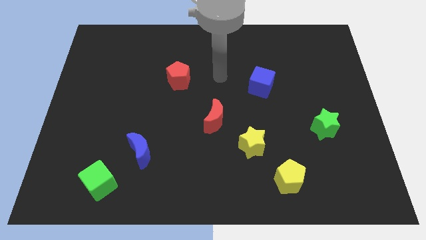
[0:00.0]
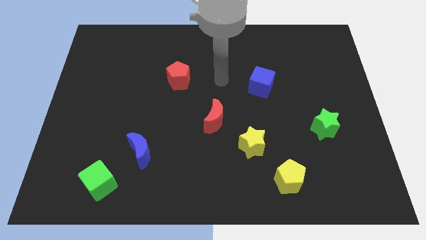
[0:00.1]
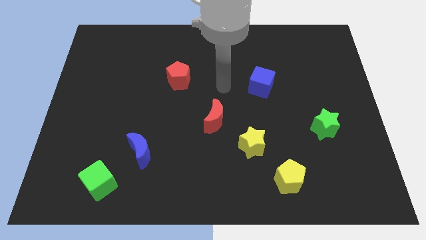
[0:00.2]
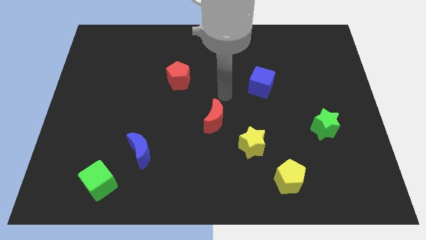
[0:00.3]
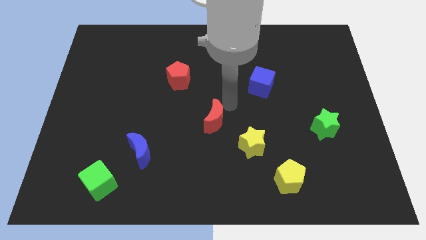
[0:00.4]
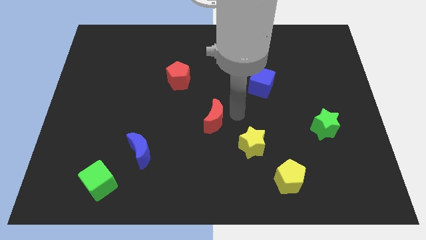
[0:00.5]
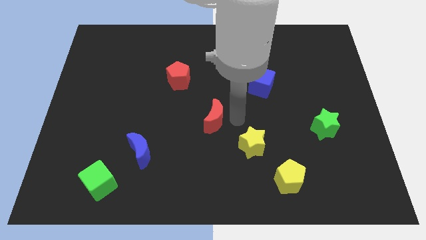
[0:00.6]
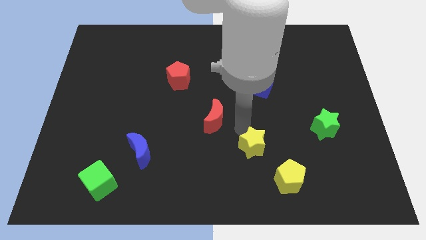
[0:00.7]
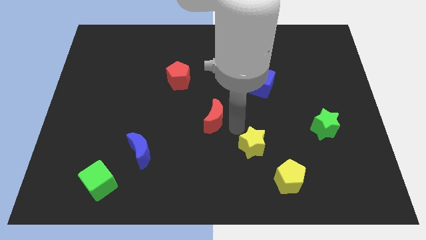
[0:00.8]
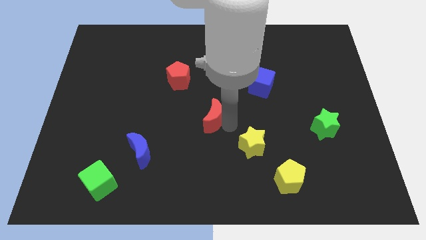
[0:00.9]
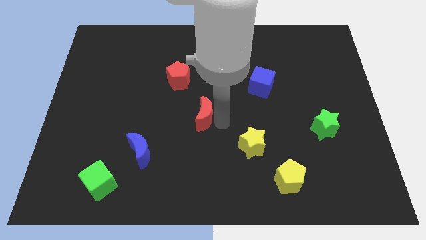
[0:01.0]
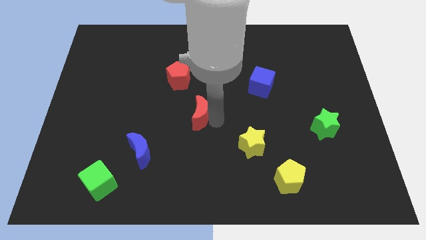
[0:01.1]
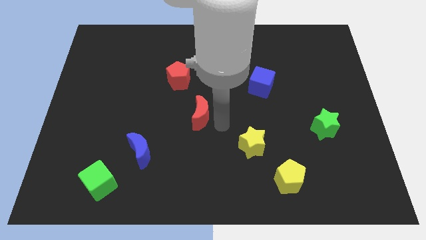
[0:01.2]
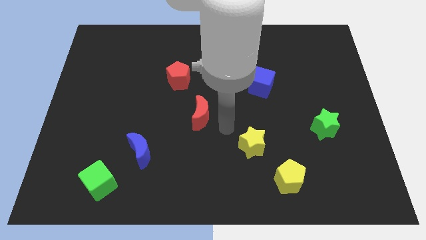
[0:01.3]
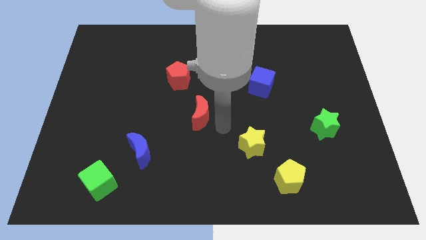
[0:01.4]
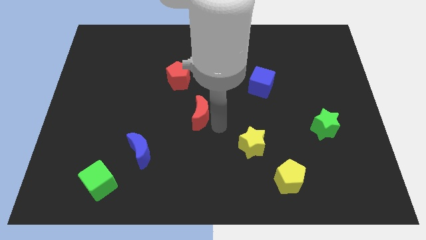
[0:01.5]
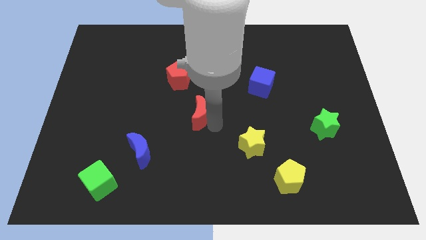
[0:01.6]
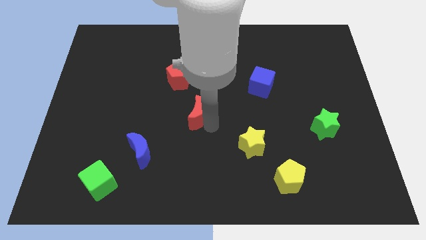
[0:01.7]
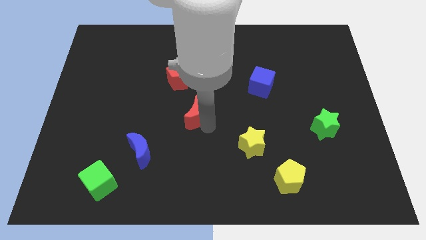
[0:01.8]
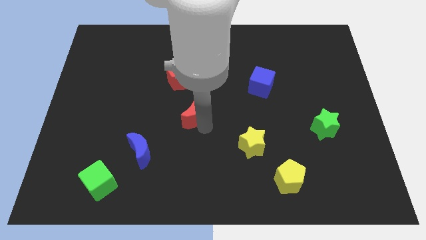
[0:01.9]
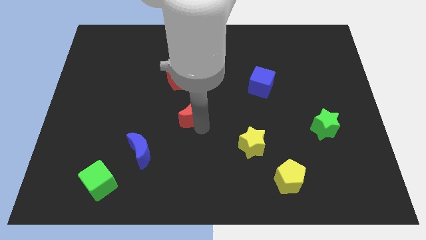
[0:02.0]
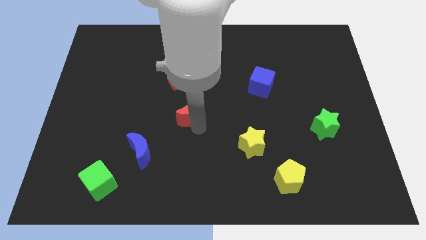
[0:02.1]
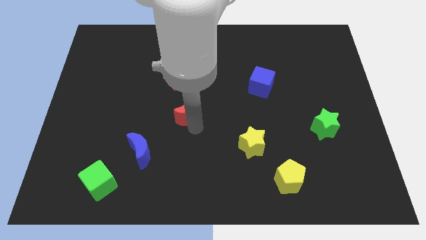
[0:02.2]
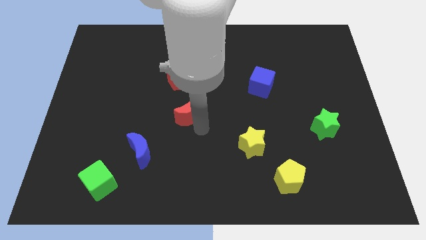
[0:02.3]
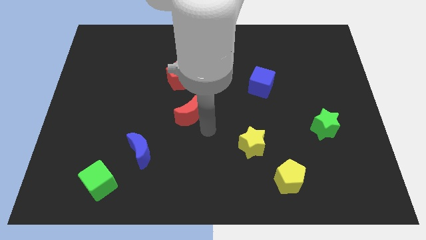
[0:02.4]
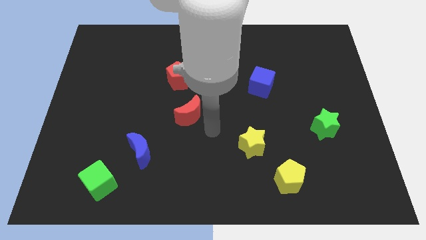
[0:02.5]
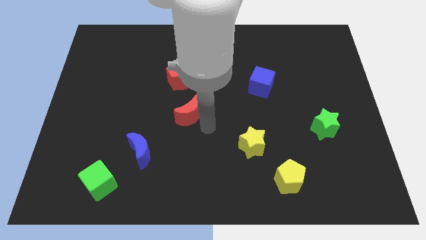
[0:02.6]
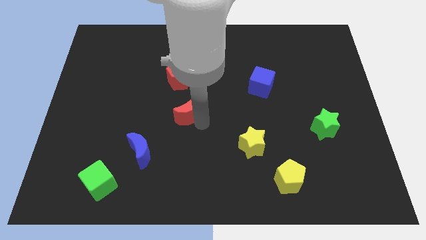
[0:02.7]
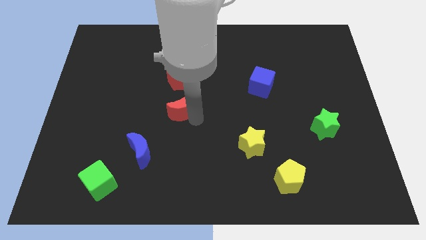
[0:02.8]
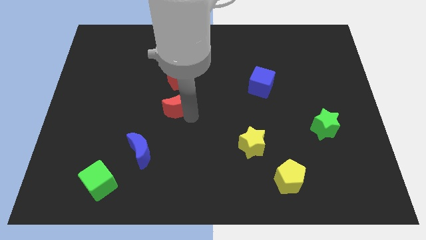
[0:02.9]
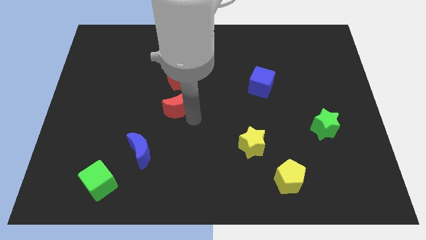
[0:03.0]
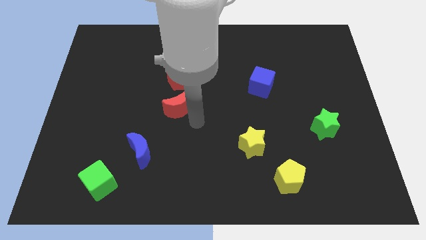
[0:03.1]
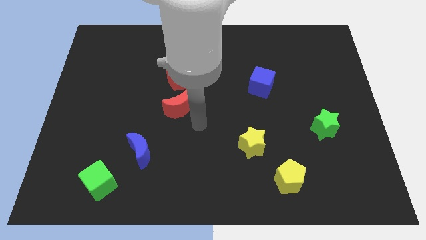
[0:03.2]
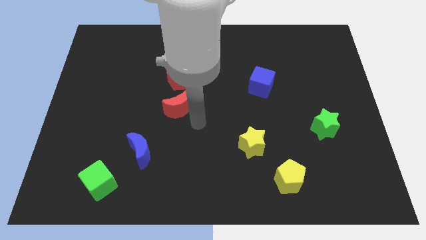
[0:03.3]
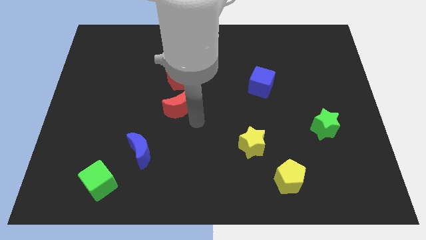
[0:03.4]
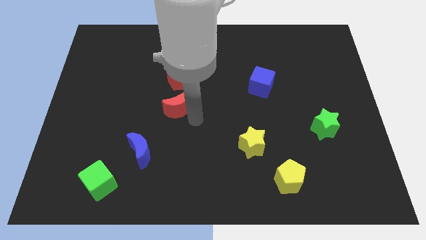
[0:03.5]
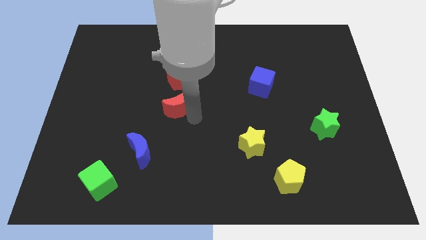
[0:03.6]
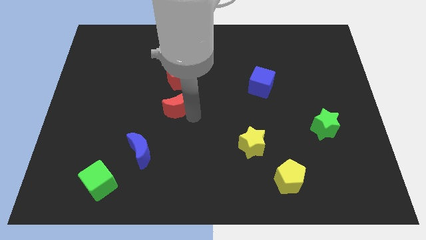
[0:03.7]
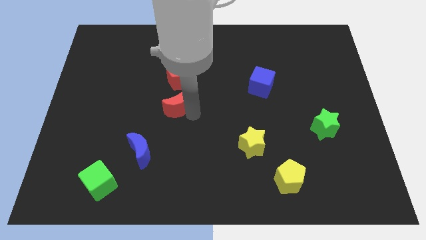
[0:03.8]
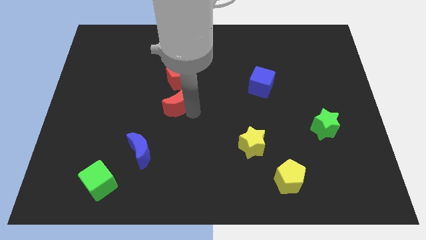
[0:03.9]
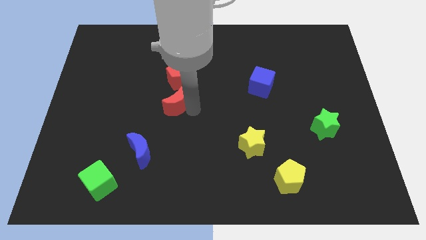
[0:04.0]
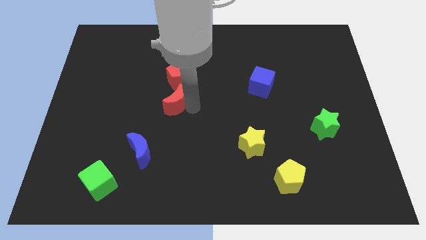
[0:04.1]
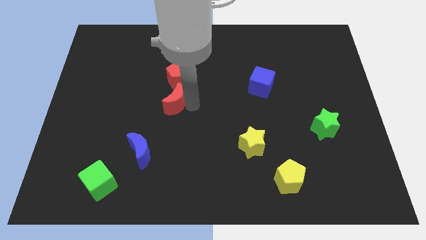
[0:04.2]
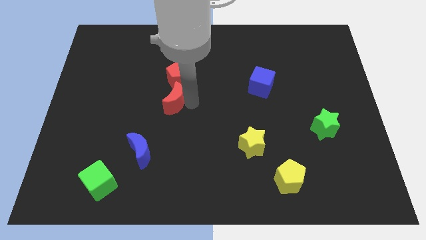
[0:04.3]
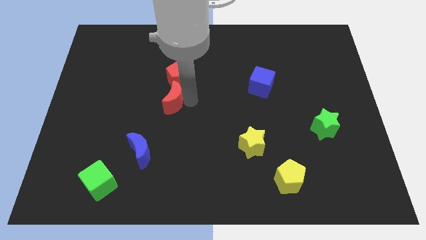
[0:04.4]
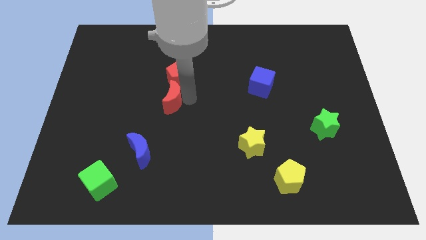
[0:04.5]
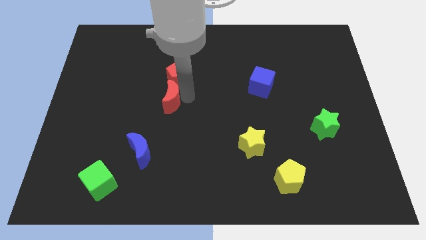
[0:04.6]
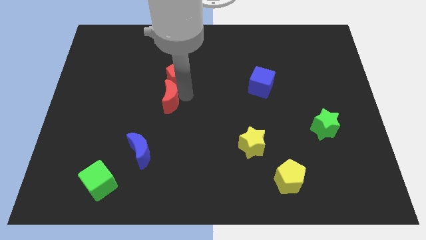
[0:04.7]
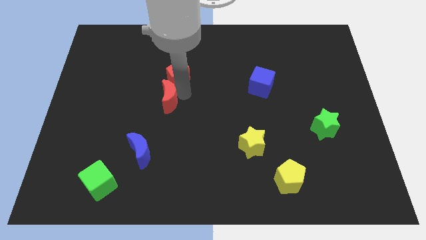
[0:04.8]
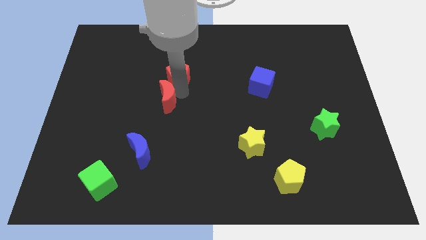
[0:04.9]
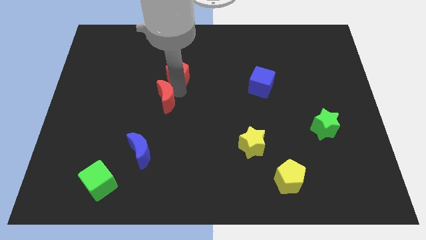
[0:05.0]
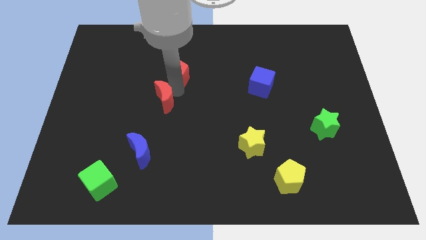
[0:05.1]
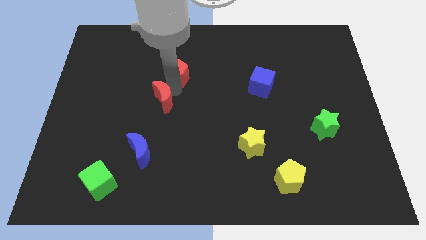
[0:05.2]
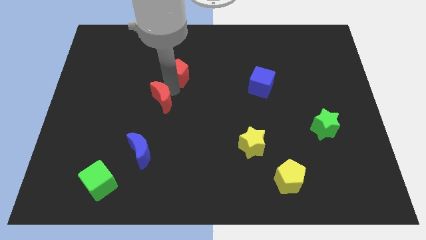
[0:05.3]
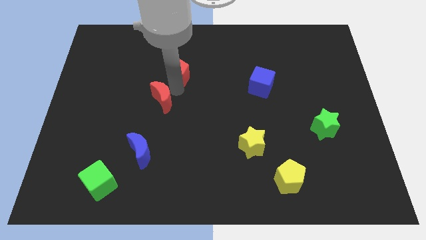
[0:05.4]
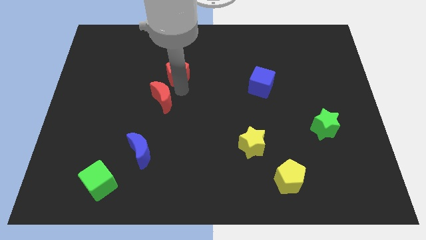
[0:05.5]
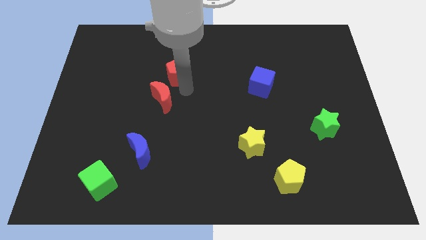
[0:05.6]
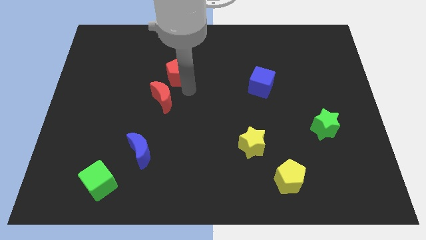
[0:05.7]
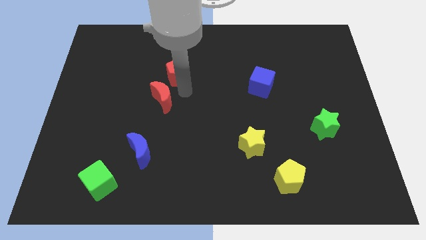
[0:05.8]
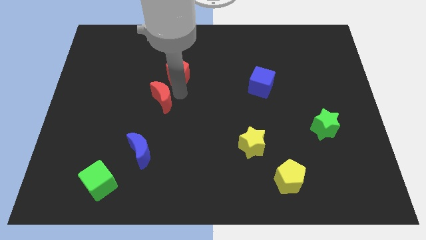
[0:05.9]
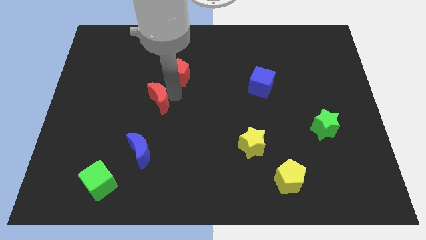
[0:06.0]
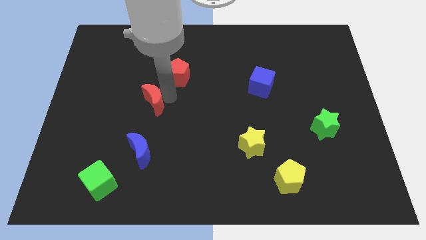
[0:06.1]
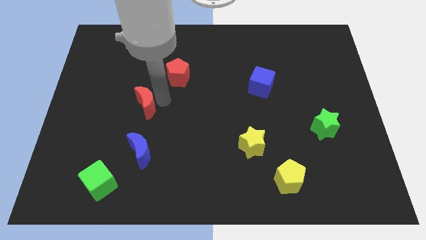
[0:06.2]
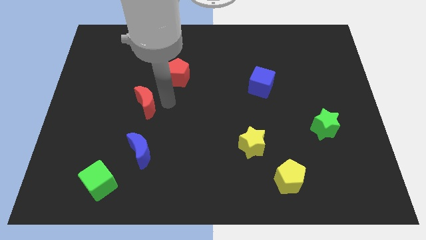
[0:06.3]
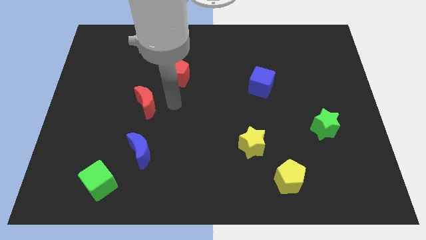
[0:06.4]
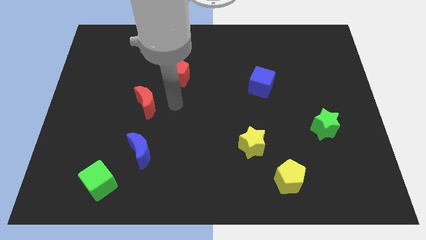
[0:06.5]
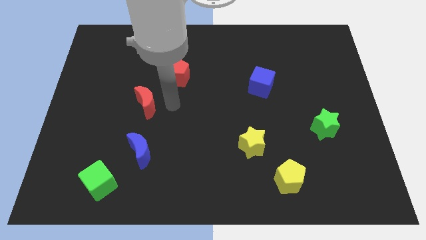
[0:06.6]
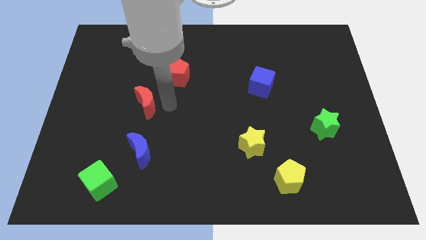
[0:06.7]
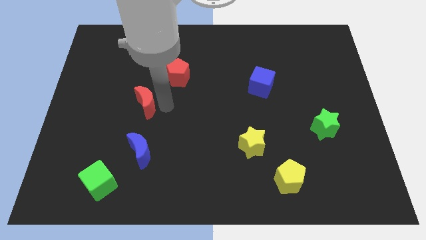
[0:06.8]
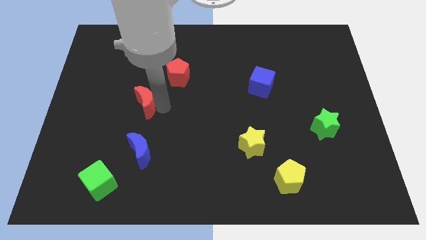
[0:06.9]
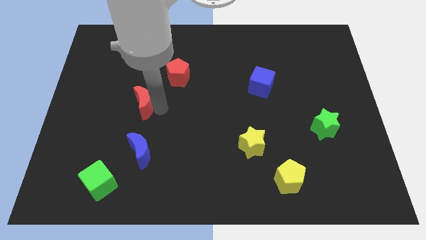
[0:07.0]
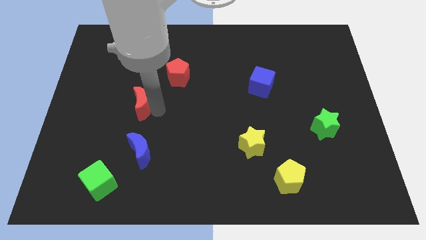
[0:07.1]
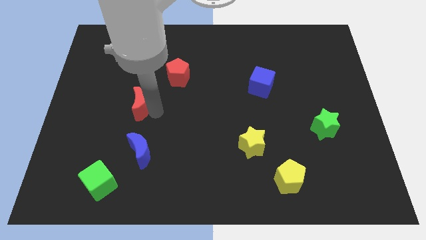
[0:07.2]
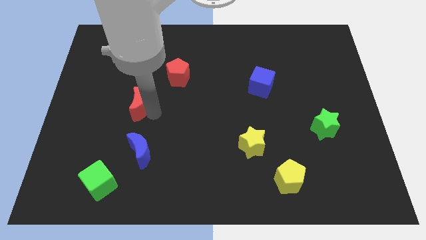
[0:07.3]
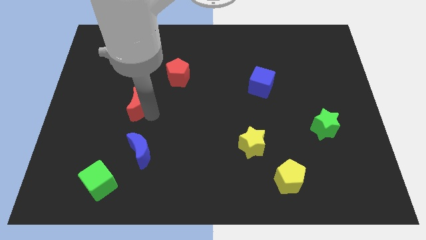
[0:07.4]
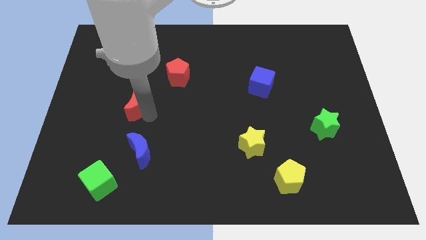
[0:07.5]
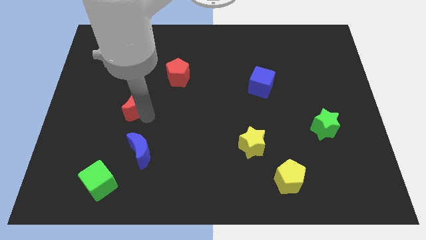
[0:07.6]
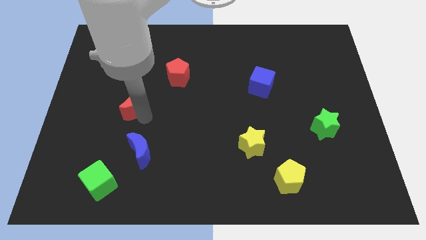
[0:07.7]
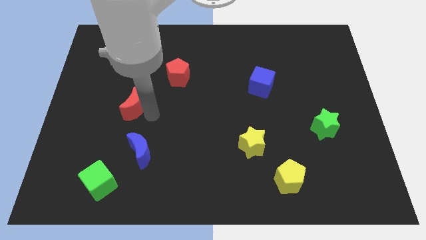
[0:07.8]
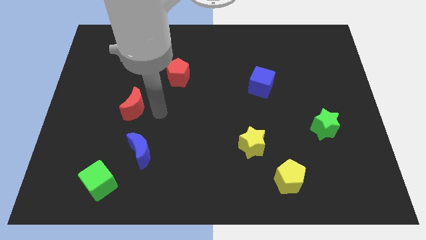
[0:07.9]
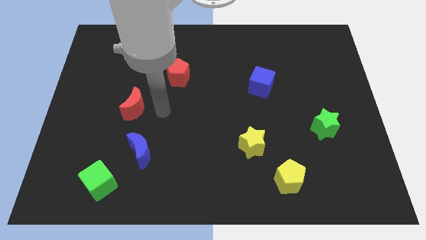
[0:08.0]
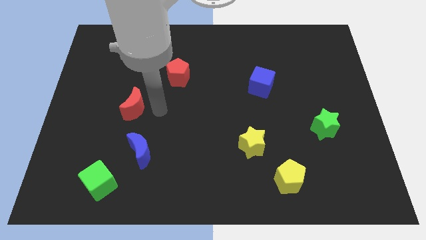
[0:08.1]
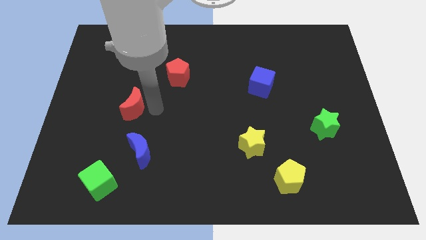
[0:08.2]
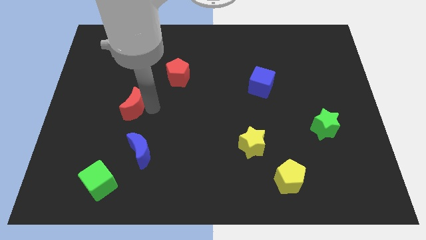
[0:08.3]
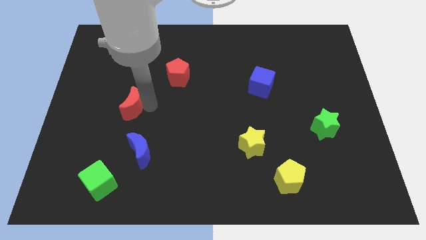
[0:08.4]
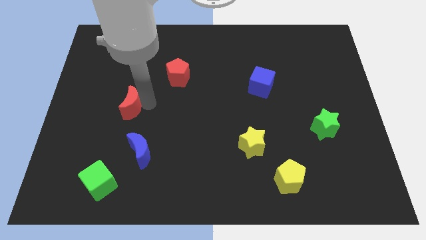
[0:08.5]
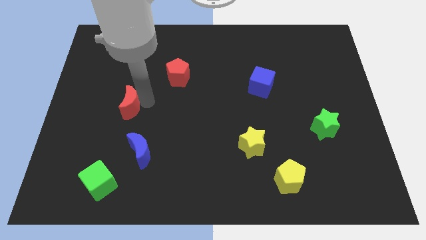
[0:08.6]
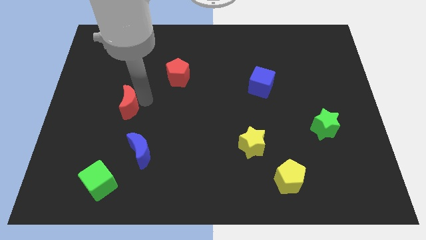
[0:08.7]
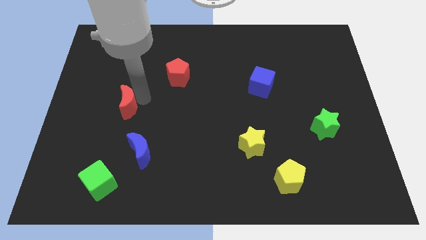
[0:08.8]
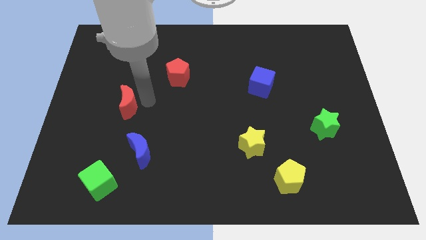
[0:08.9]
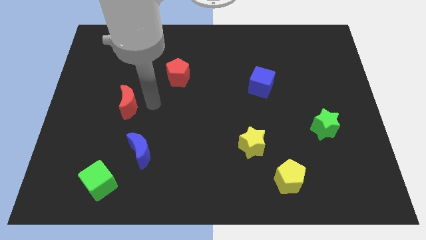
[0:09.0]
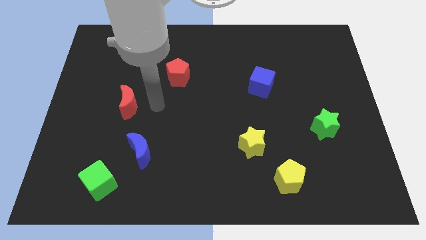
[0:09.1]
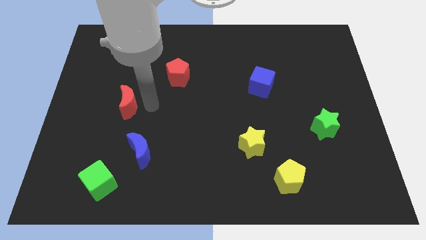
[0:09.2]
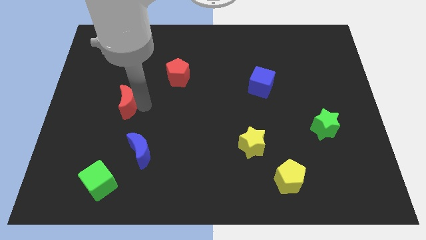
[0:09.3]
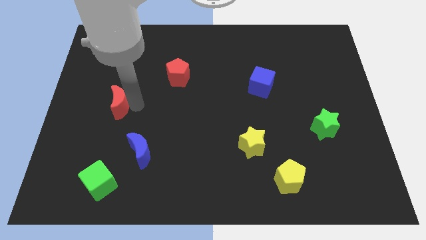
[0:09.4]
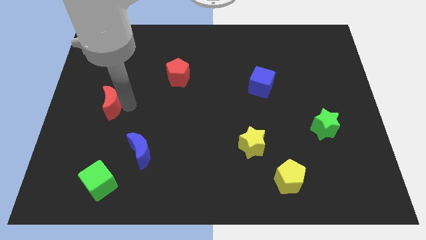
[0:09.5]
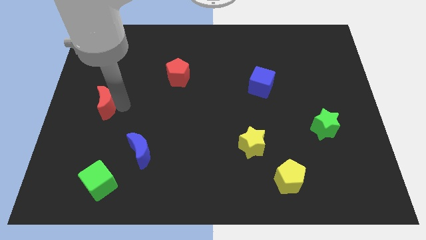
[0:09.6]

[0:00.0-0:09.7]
move the red moon to the left side
